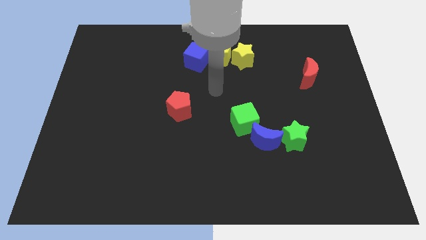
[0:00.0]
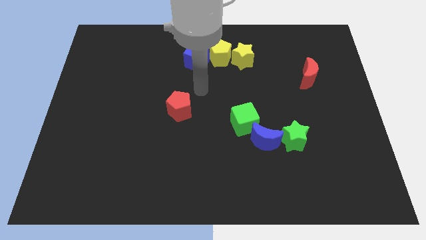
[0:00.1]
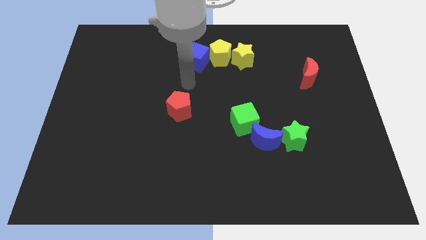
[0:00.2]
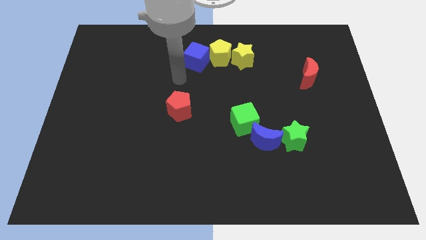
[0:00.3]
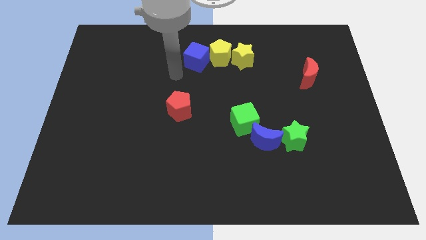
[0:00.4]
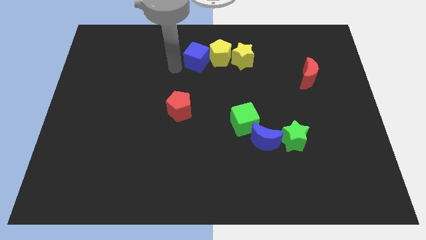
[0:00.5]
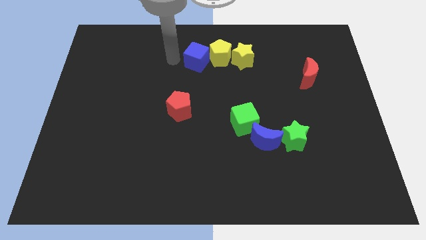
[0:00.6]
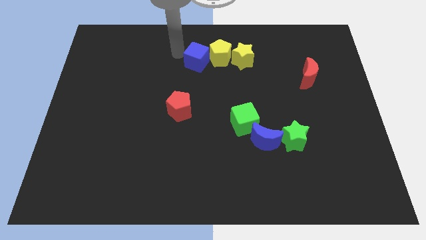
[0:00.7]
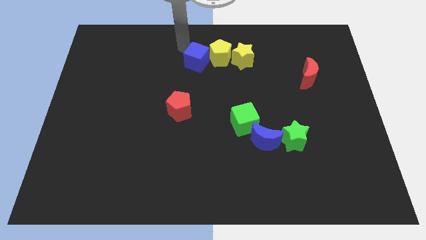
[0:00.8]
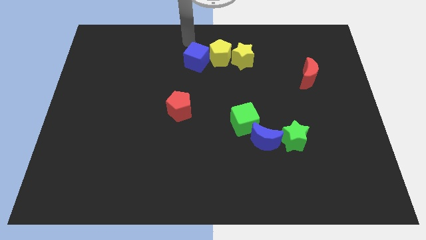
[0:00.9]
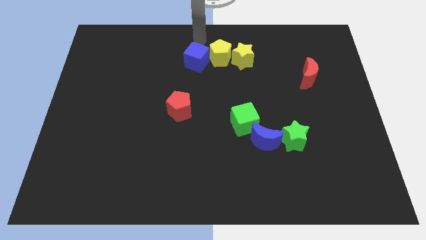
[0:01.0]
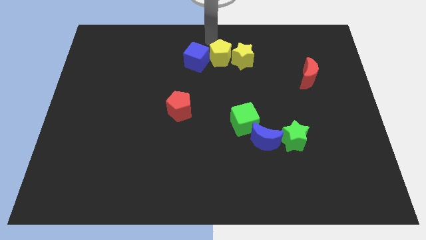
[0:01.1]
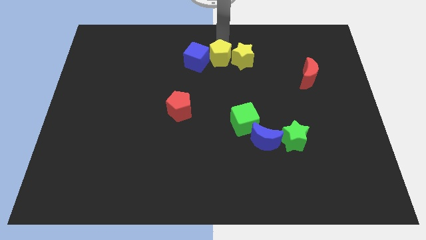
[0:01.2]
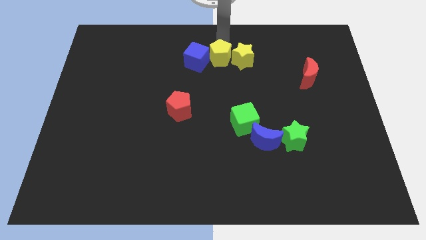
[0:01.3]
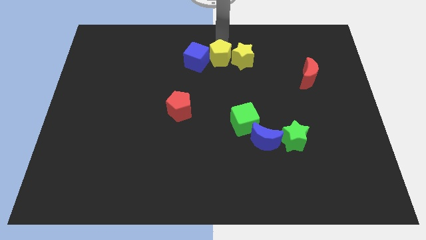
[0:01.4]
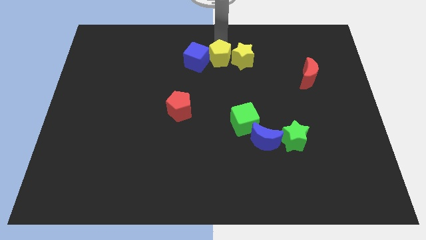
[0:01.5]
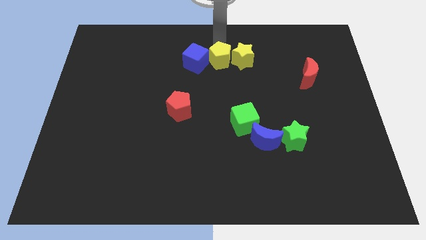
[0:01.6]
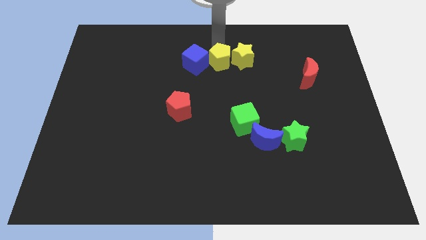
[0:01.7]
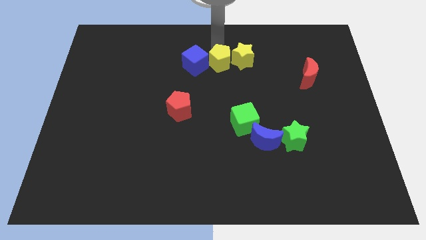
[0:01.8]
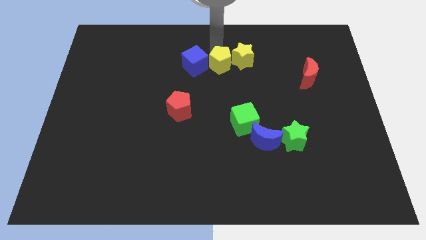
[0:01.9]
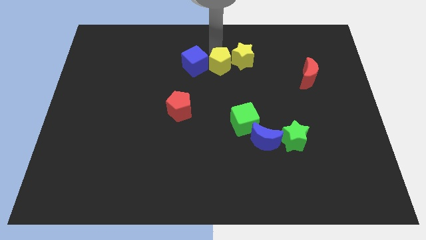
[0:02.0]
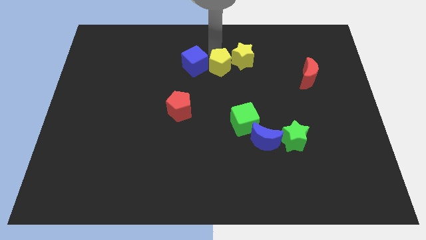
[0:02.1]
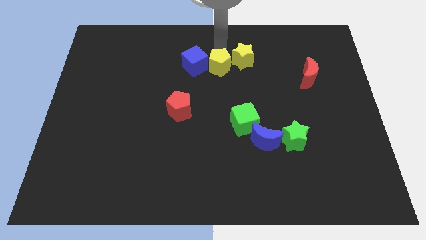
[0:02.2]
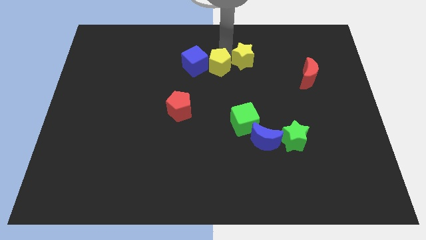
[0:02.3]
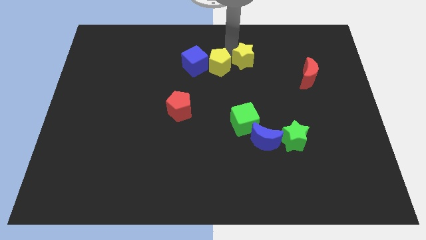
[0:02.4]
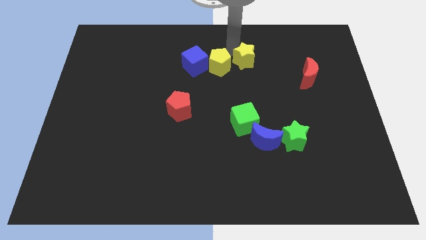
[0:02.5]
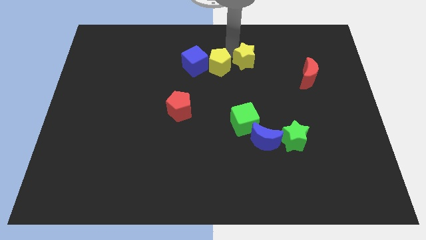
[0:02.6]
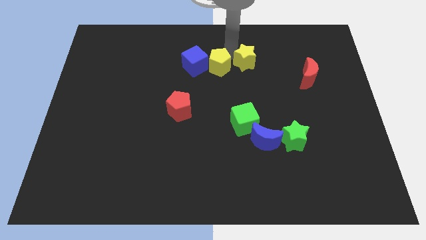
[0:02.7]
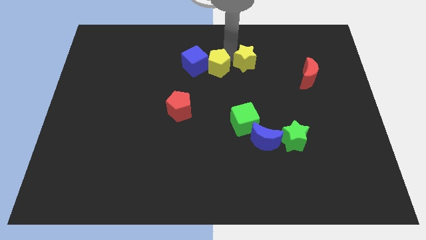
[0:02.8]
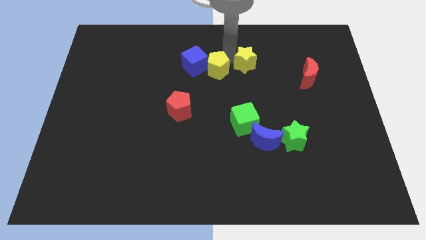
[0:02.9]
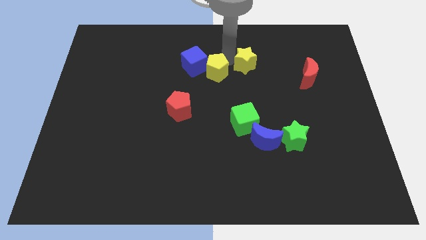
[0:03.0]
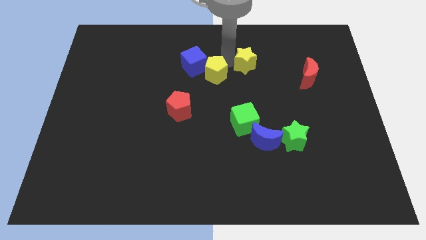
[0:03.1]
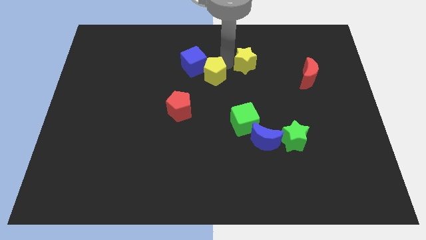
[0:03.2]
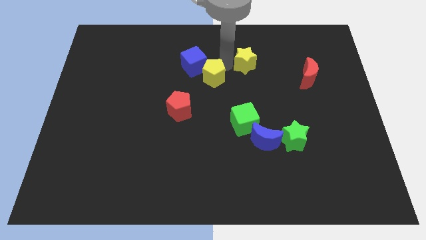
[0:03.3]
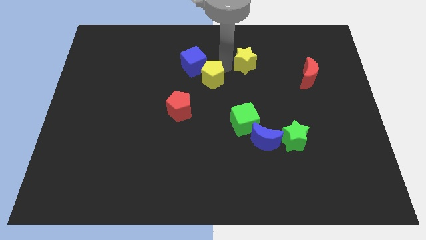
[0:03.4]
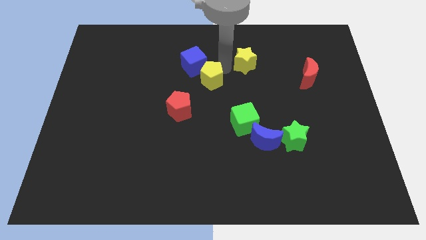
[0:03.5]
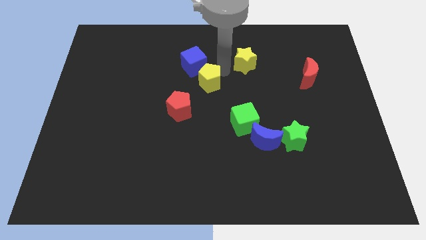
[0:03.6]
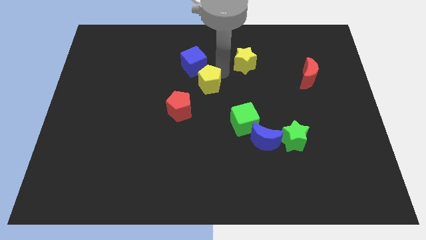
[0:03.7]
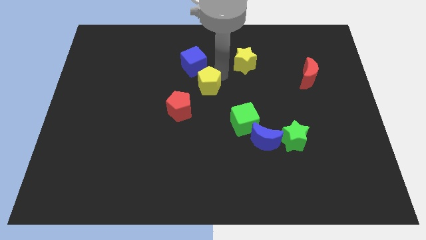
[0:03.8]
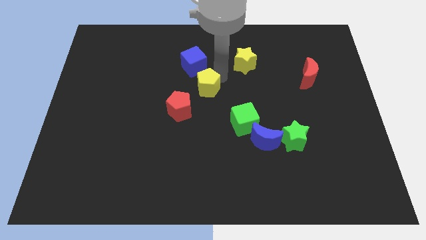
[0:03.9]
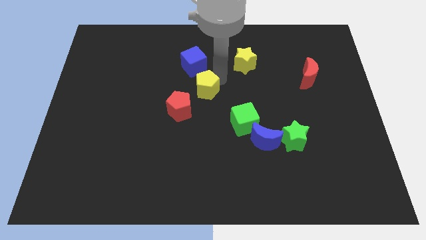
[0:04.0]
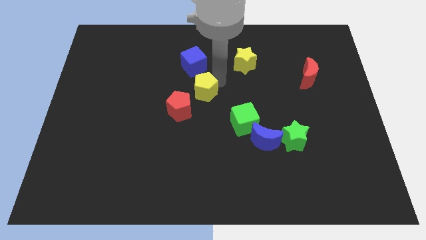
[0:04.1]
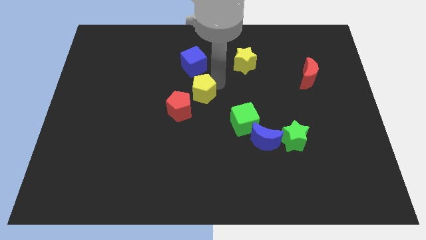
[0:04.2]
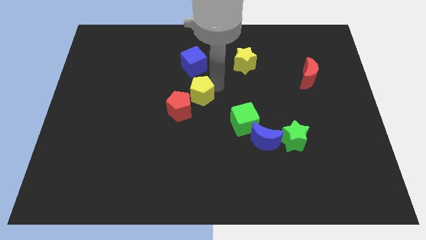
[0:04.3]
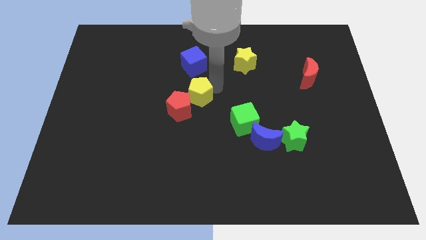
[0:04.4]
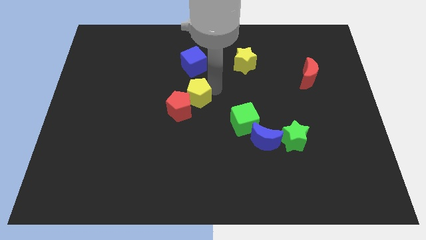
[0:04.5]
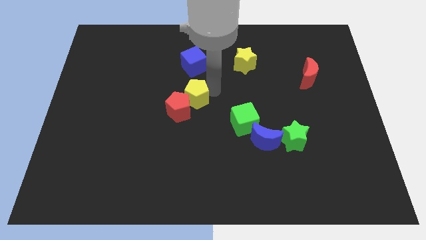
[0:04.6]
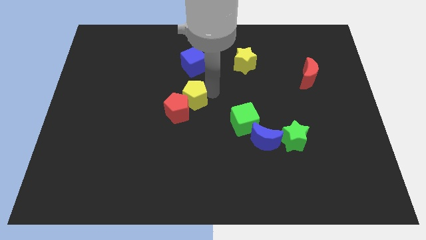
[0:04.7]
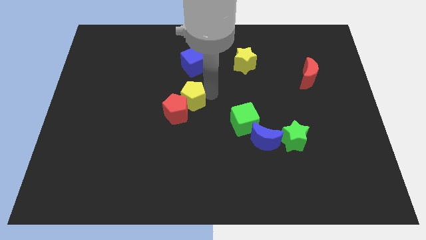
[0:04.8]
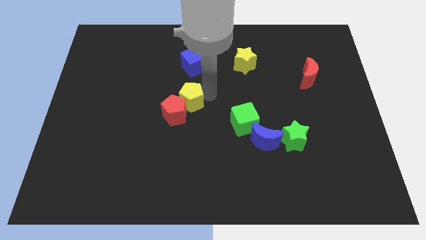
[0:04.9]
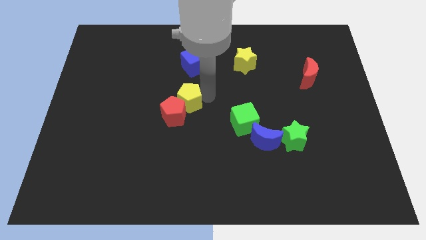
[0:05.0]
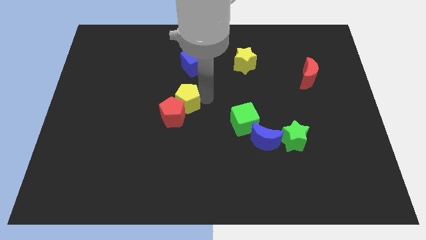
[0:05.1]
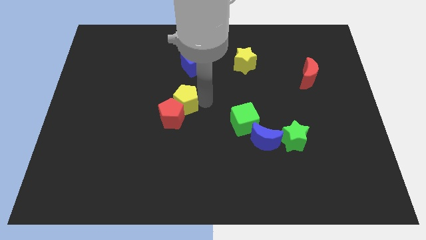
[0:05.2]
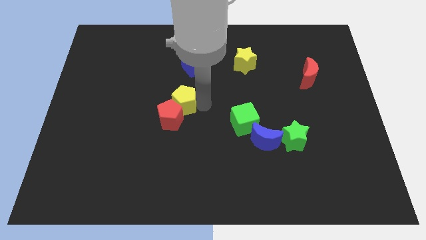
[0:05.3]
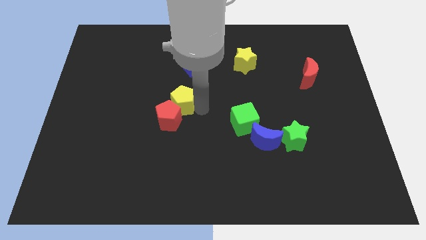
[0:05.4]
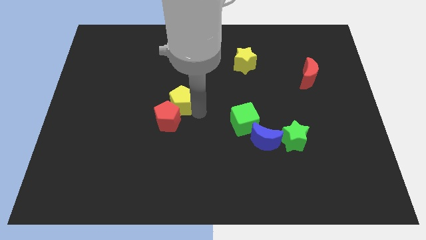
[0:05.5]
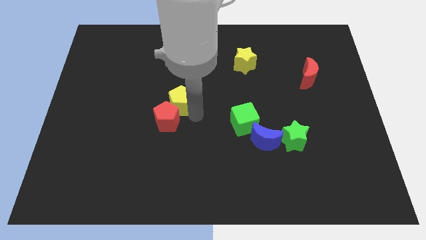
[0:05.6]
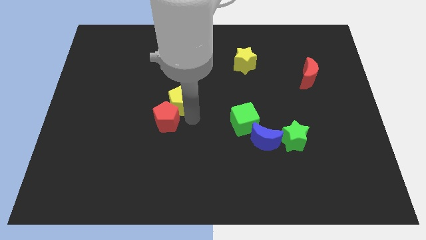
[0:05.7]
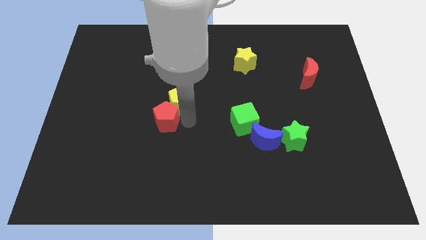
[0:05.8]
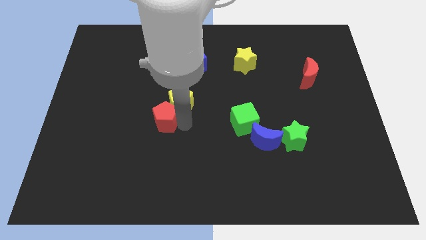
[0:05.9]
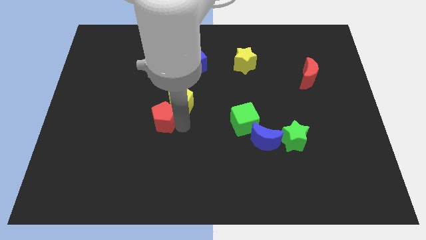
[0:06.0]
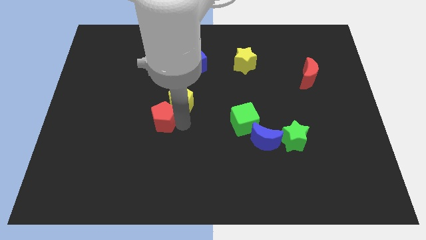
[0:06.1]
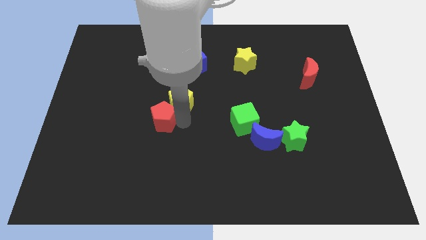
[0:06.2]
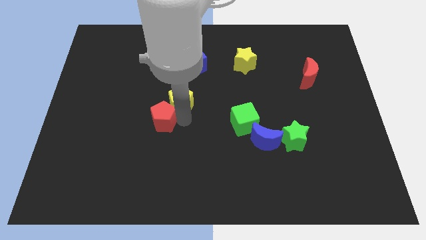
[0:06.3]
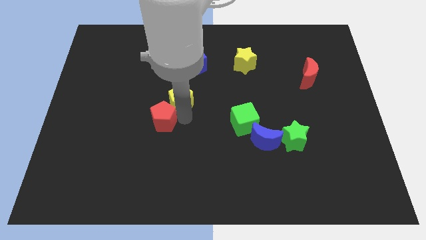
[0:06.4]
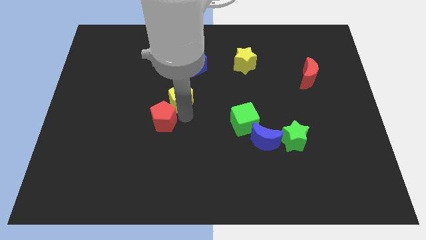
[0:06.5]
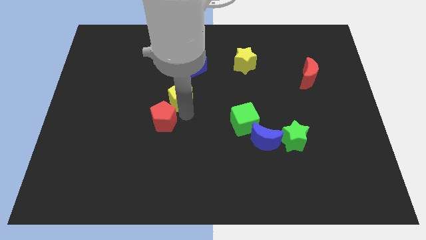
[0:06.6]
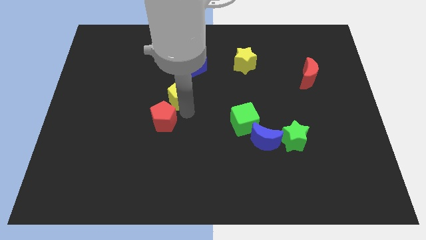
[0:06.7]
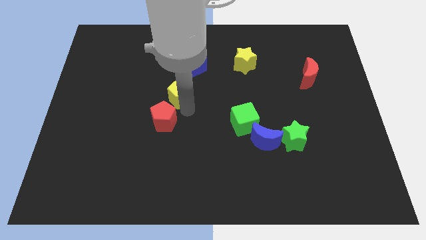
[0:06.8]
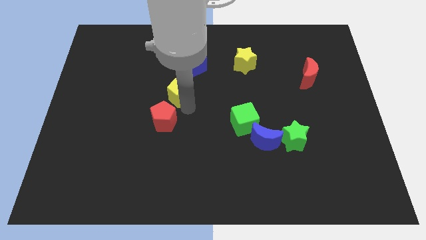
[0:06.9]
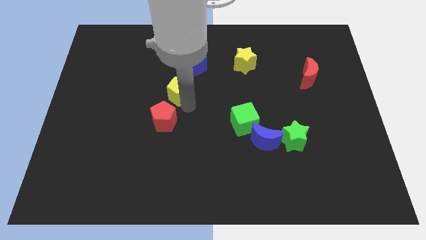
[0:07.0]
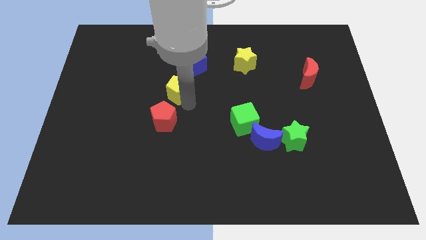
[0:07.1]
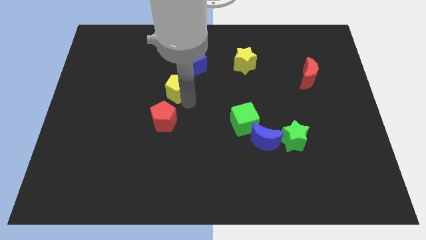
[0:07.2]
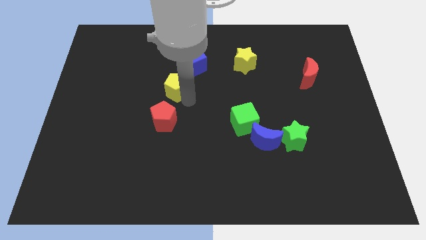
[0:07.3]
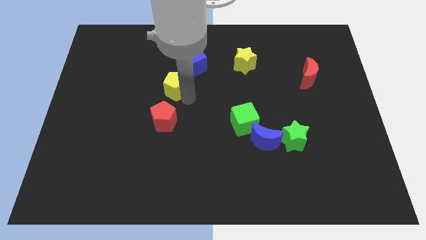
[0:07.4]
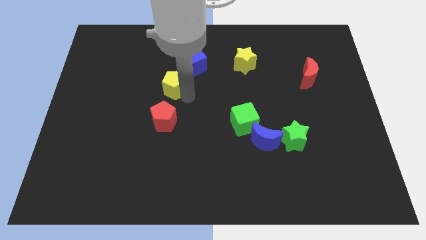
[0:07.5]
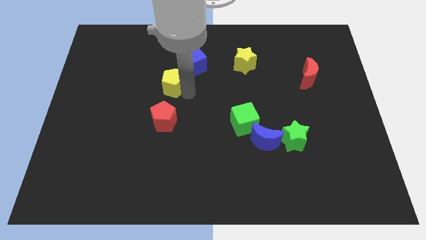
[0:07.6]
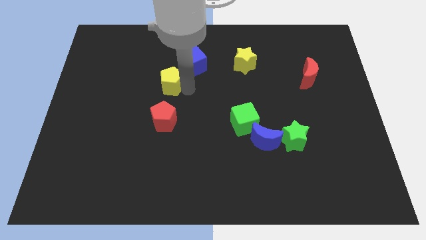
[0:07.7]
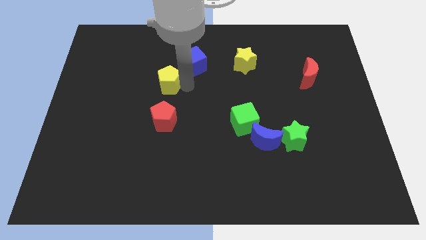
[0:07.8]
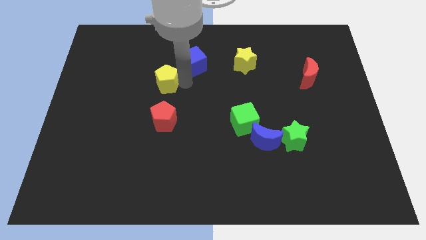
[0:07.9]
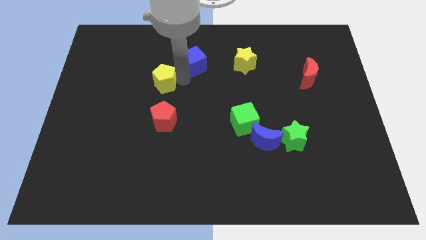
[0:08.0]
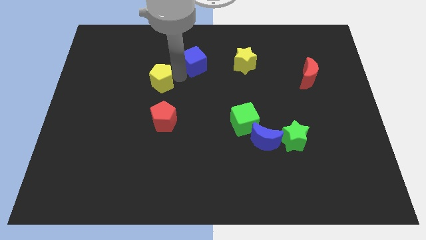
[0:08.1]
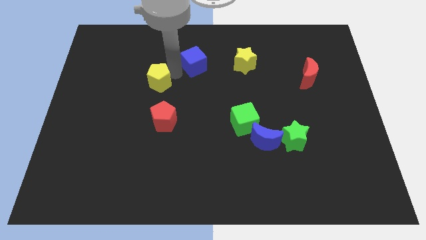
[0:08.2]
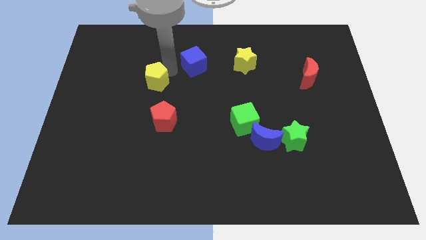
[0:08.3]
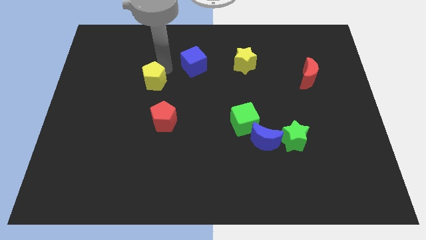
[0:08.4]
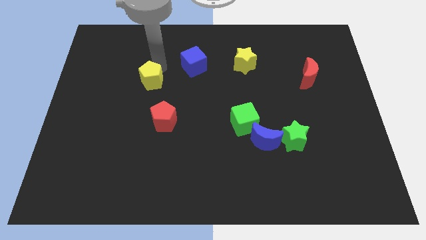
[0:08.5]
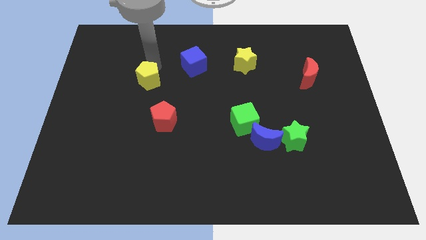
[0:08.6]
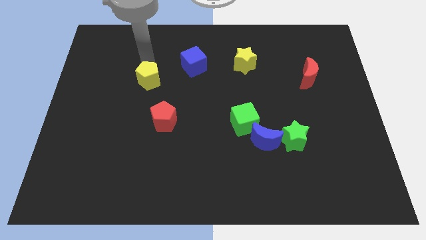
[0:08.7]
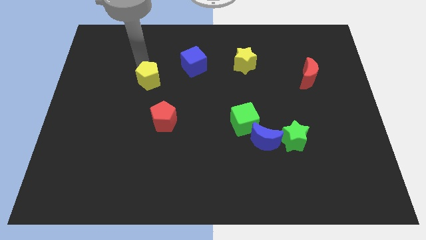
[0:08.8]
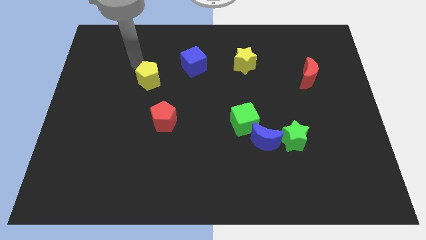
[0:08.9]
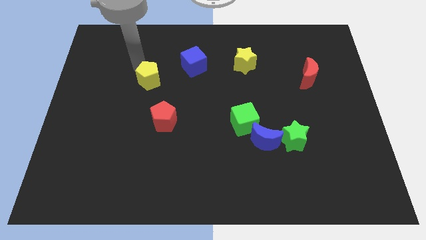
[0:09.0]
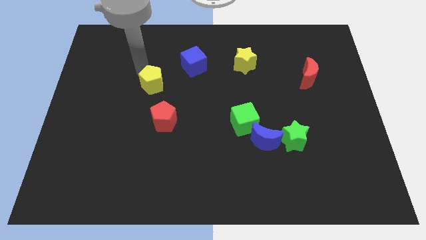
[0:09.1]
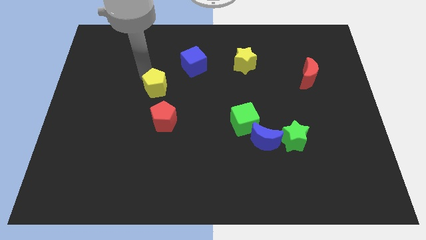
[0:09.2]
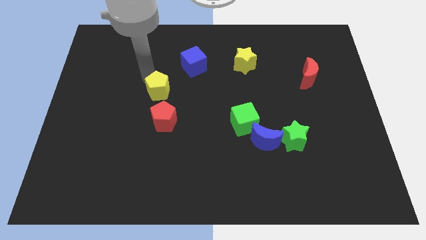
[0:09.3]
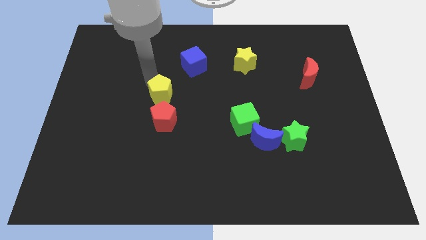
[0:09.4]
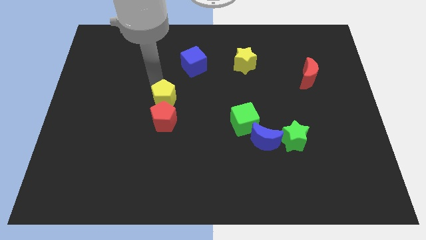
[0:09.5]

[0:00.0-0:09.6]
move the yellow pentagon downwards and to the left
